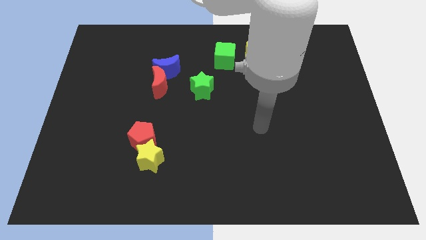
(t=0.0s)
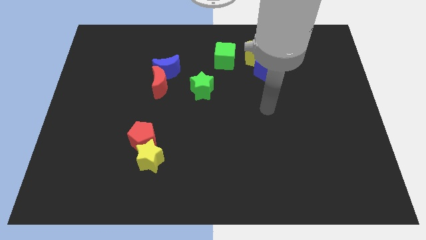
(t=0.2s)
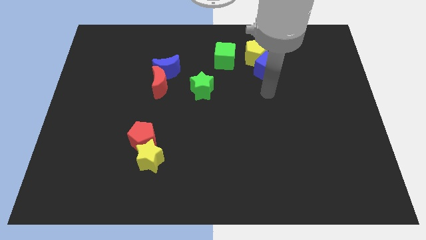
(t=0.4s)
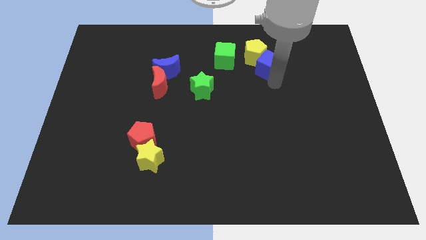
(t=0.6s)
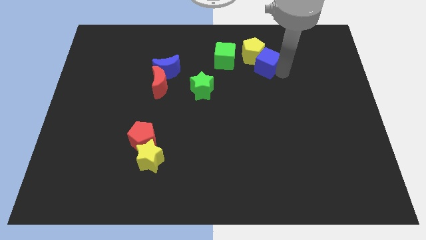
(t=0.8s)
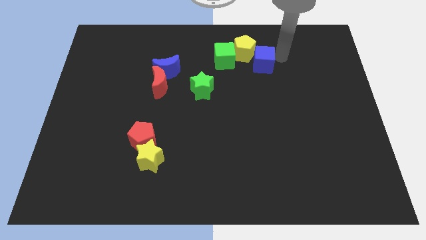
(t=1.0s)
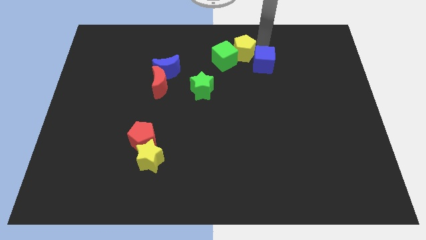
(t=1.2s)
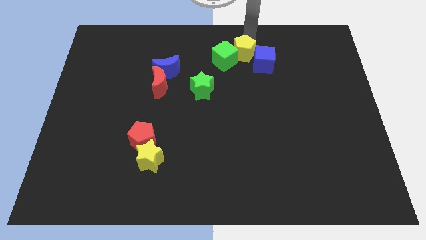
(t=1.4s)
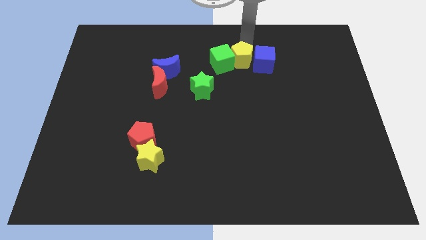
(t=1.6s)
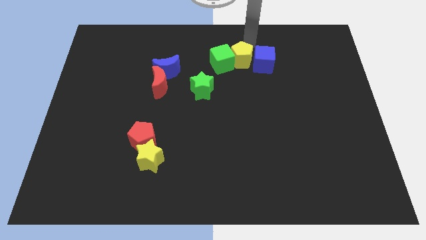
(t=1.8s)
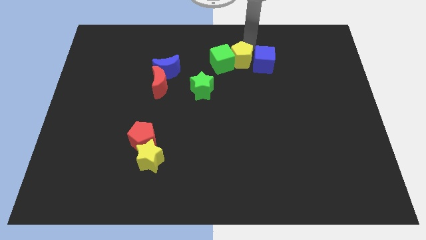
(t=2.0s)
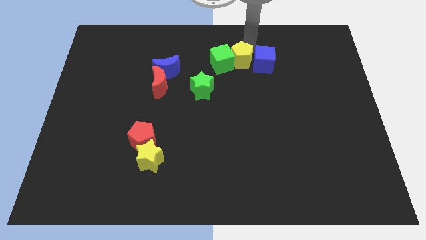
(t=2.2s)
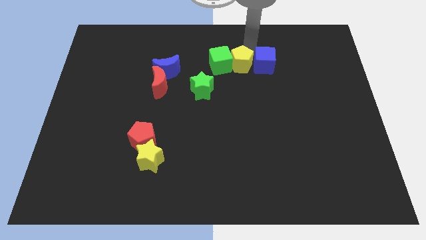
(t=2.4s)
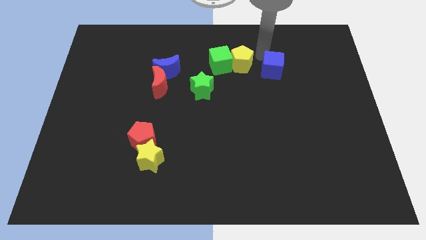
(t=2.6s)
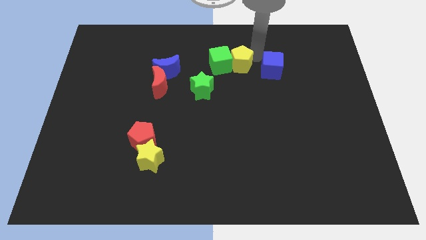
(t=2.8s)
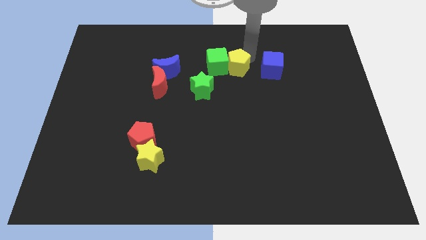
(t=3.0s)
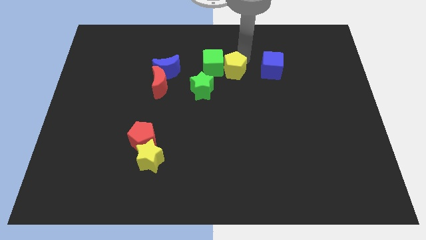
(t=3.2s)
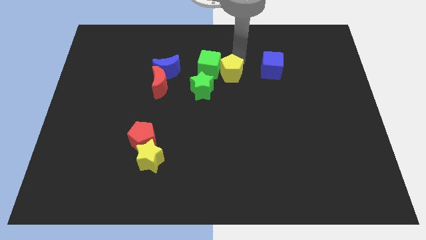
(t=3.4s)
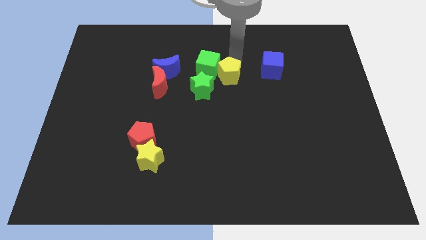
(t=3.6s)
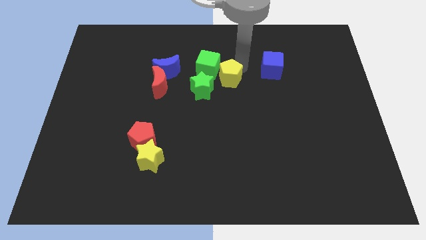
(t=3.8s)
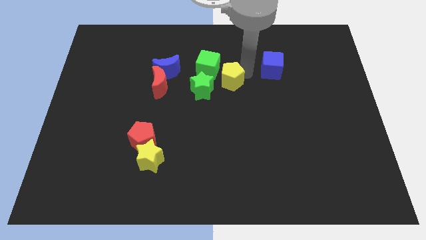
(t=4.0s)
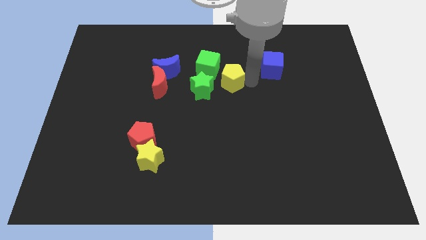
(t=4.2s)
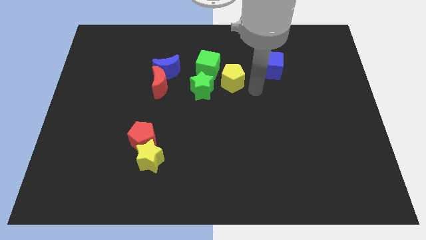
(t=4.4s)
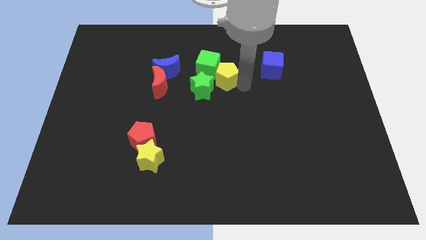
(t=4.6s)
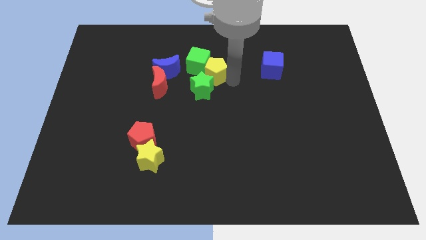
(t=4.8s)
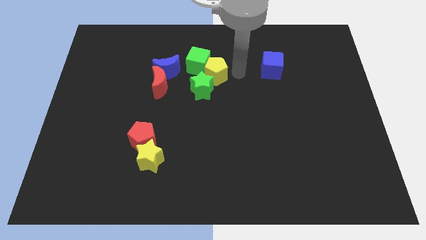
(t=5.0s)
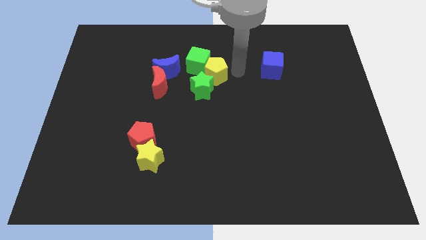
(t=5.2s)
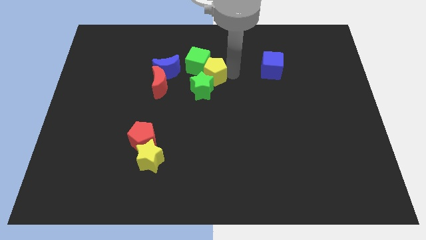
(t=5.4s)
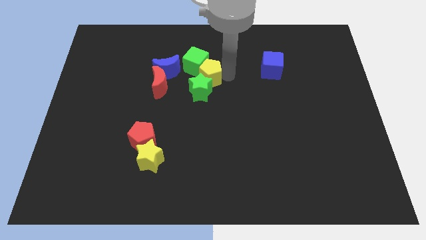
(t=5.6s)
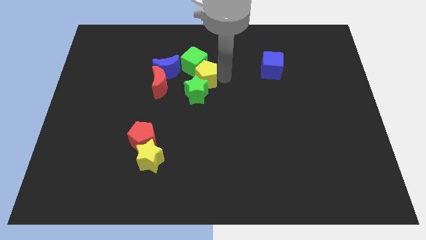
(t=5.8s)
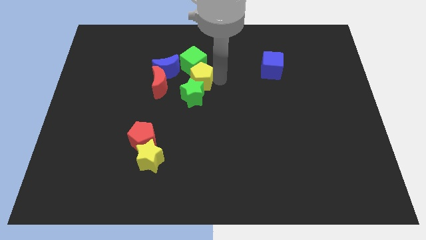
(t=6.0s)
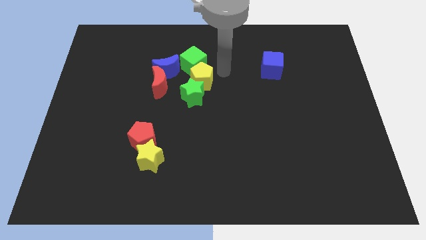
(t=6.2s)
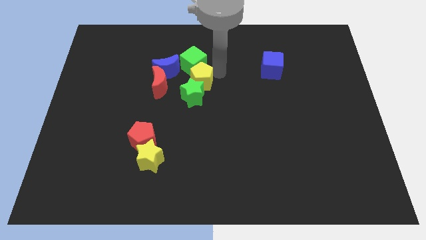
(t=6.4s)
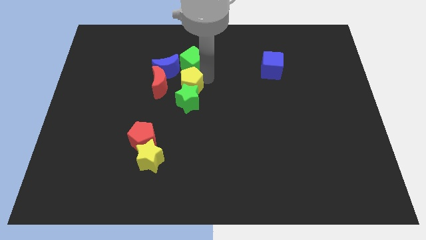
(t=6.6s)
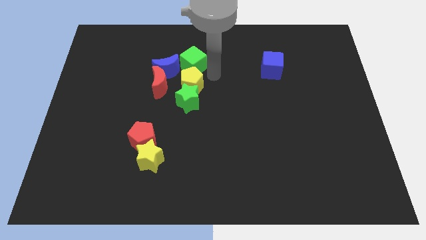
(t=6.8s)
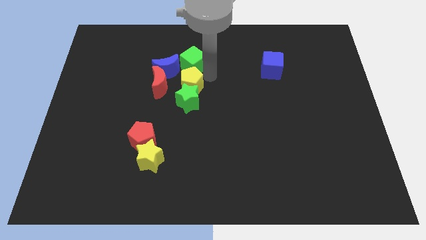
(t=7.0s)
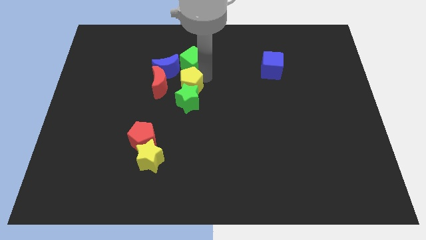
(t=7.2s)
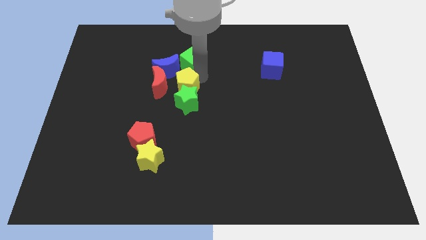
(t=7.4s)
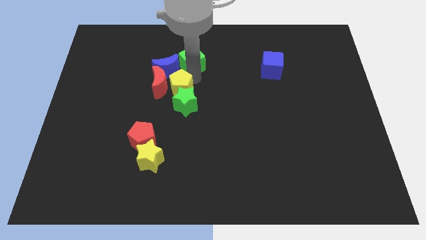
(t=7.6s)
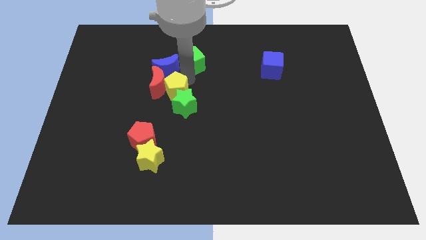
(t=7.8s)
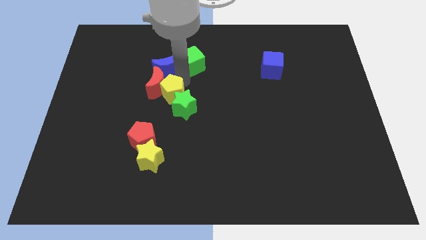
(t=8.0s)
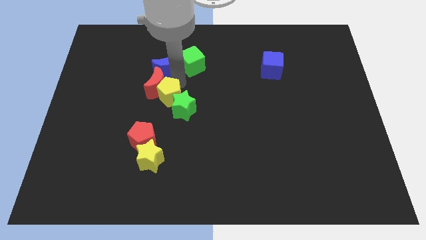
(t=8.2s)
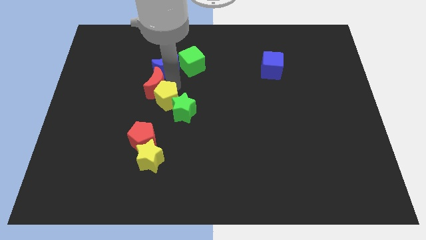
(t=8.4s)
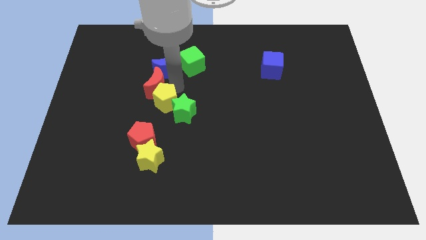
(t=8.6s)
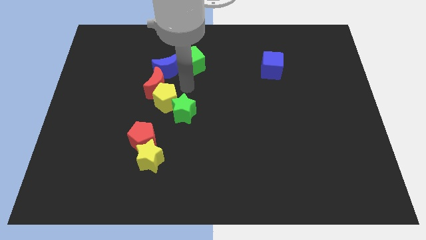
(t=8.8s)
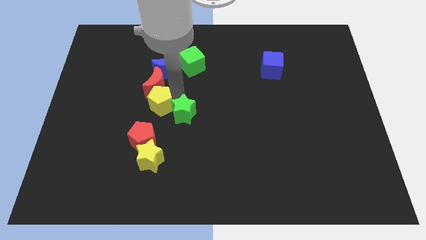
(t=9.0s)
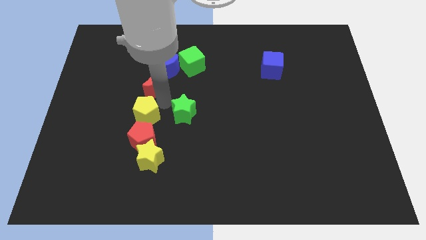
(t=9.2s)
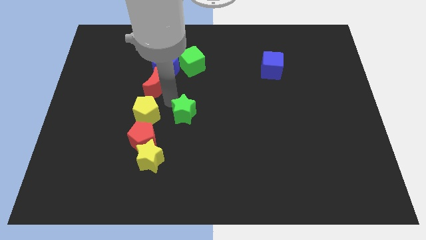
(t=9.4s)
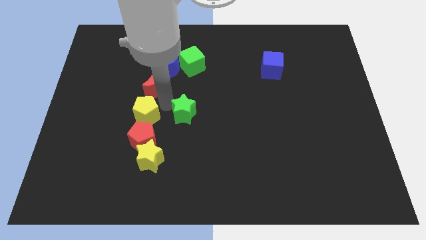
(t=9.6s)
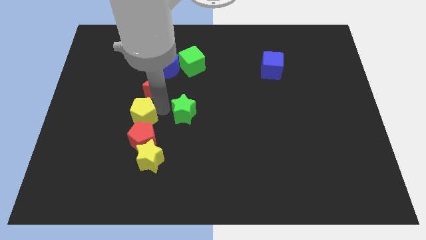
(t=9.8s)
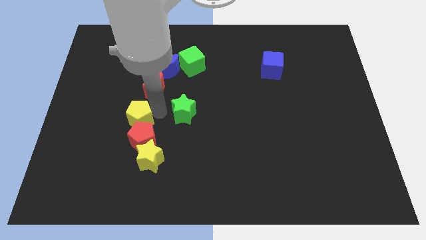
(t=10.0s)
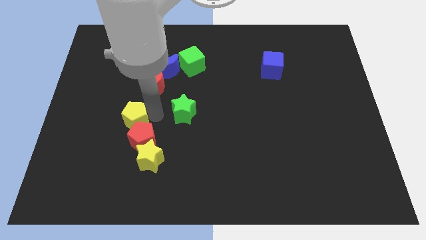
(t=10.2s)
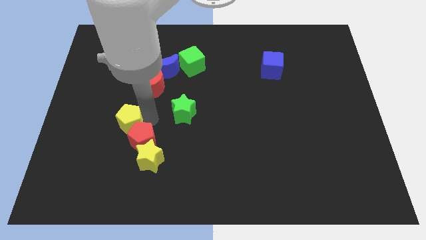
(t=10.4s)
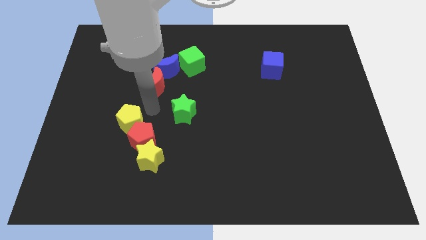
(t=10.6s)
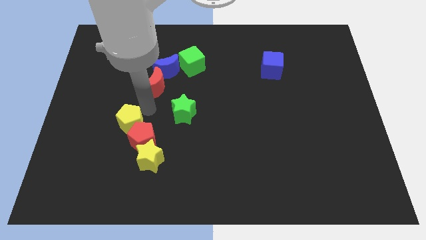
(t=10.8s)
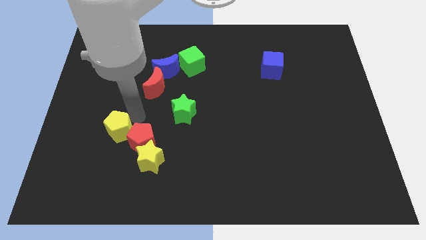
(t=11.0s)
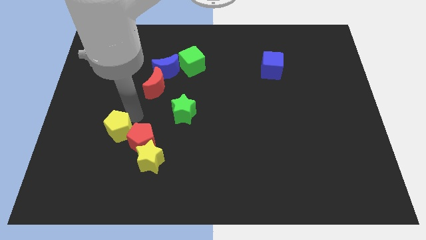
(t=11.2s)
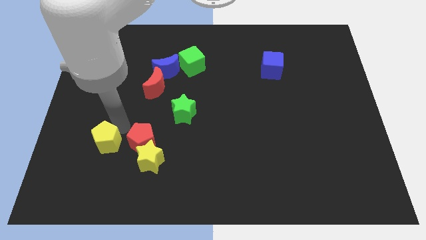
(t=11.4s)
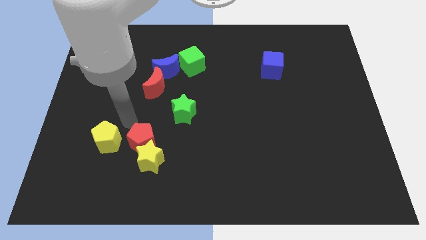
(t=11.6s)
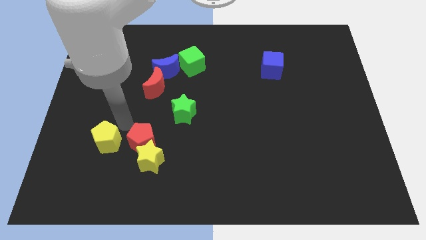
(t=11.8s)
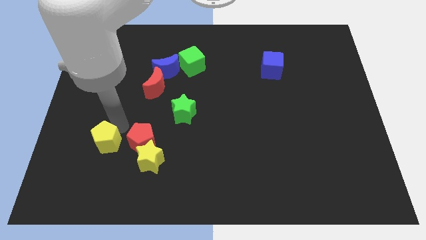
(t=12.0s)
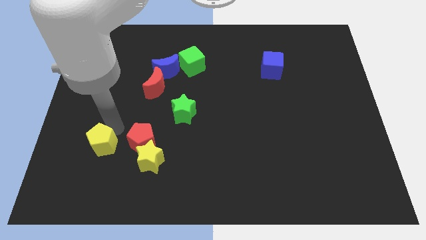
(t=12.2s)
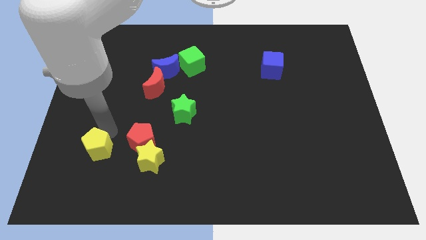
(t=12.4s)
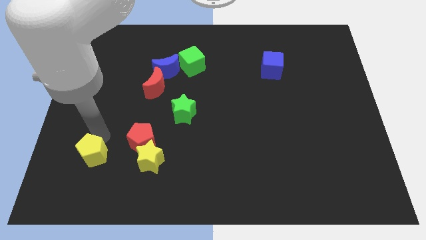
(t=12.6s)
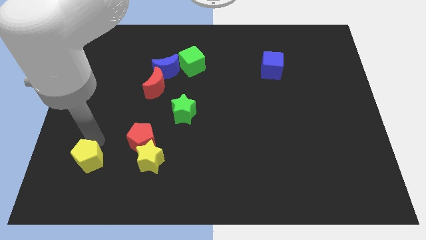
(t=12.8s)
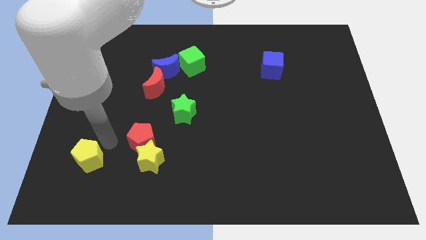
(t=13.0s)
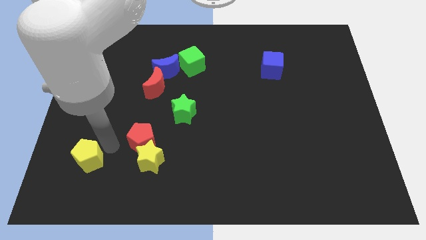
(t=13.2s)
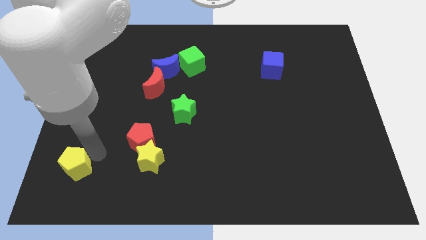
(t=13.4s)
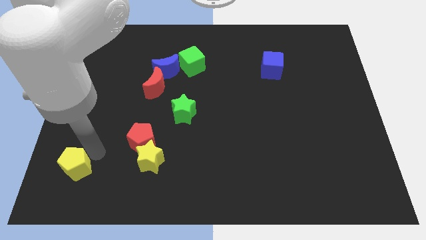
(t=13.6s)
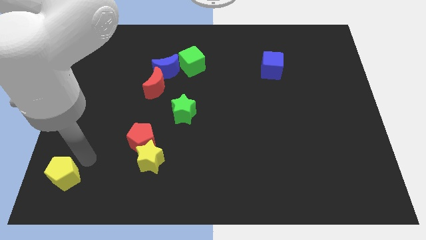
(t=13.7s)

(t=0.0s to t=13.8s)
slide the yellow pentagon to the bottom left
